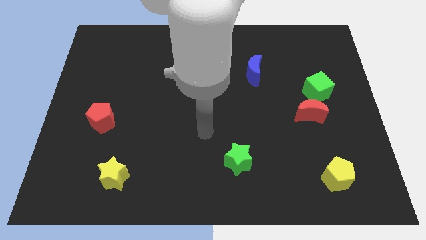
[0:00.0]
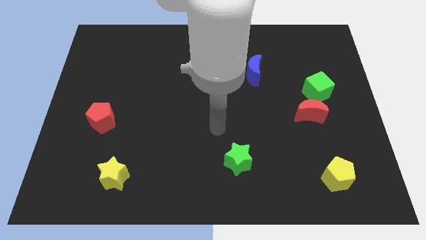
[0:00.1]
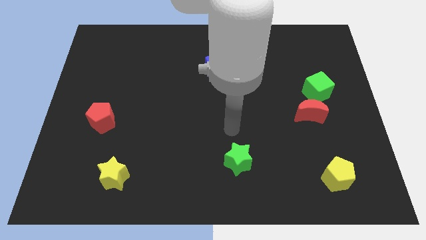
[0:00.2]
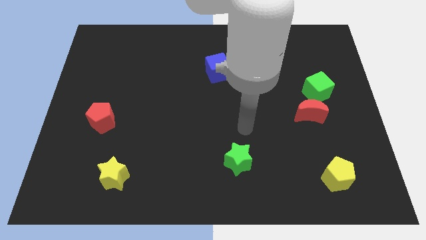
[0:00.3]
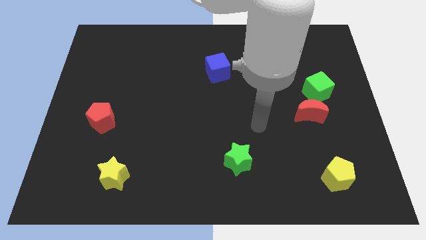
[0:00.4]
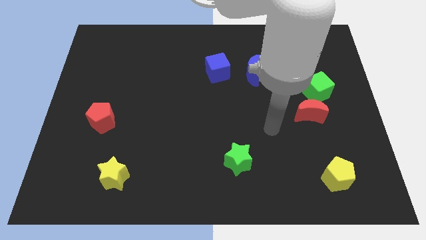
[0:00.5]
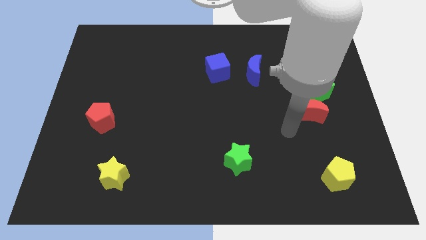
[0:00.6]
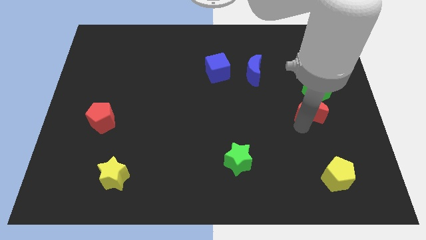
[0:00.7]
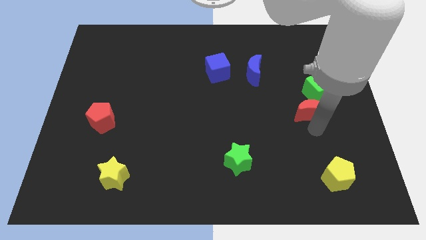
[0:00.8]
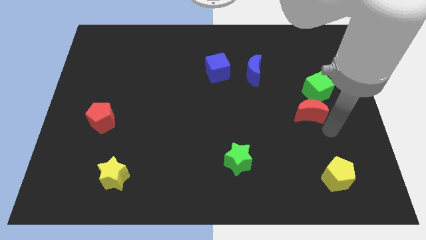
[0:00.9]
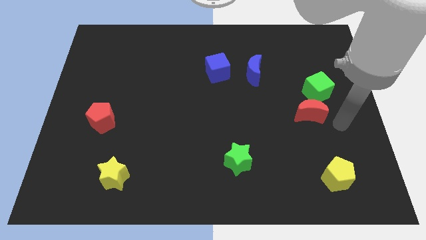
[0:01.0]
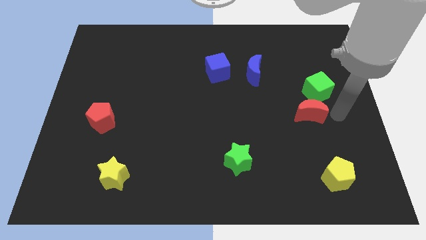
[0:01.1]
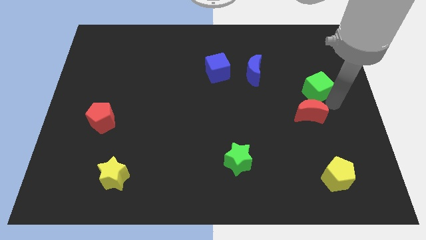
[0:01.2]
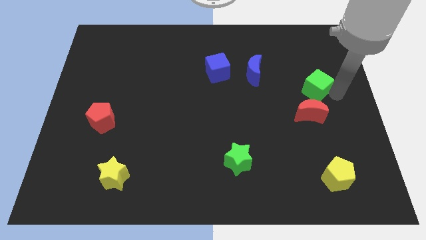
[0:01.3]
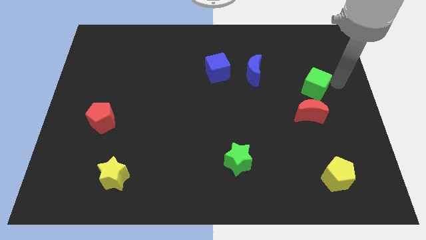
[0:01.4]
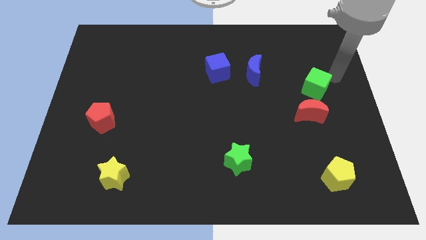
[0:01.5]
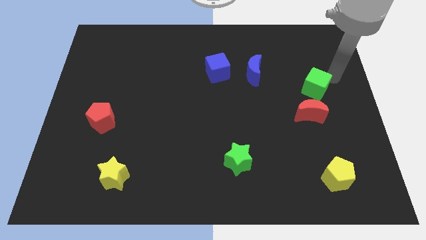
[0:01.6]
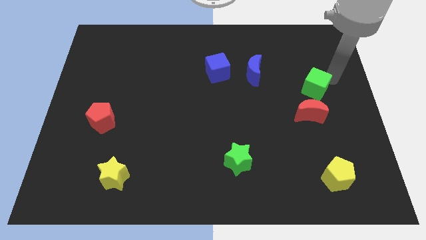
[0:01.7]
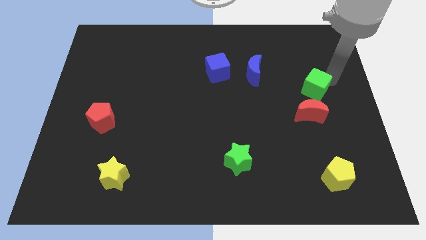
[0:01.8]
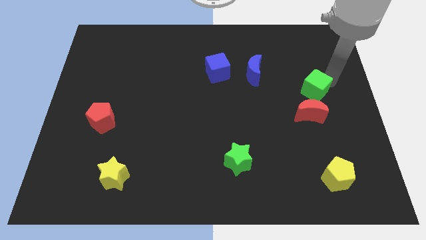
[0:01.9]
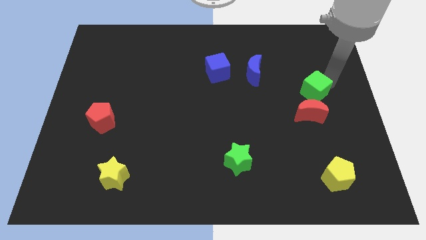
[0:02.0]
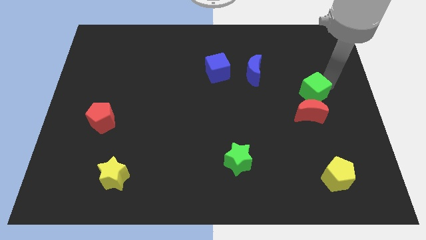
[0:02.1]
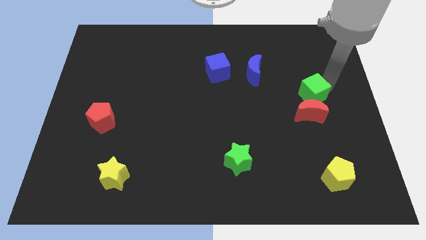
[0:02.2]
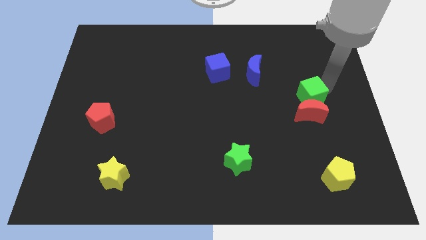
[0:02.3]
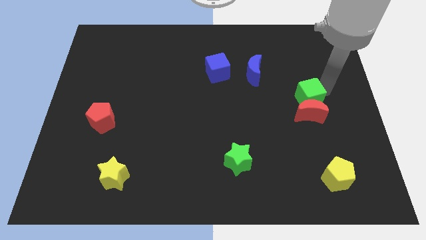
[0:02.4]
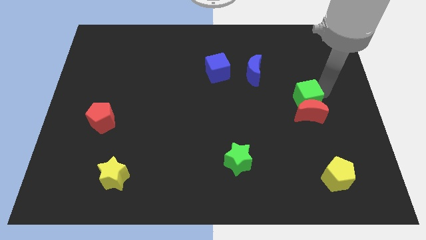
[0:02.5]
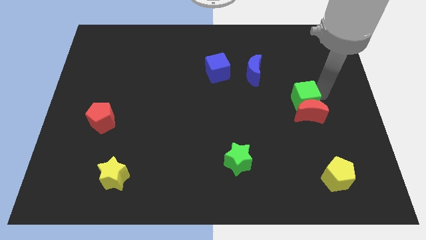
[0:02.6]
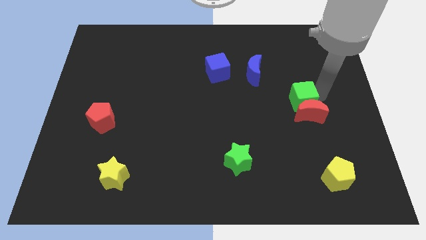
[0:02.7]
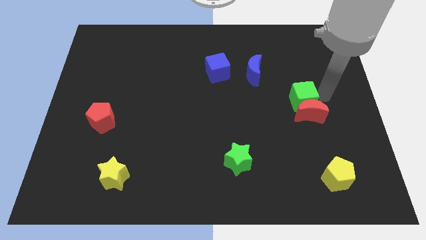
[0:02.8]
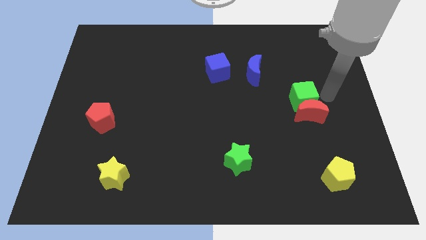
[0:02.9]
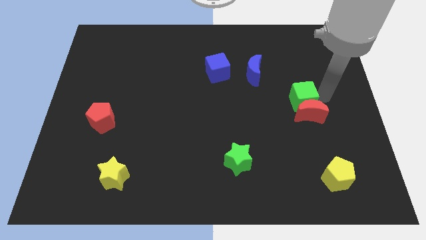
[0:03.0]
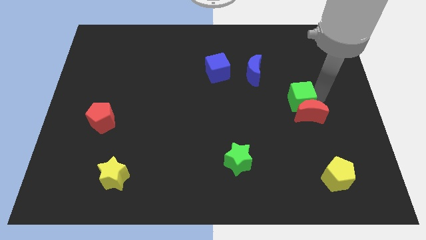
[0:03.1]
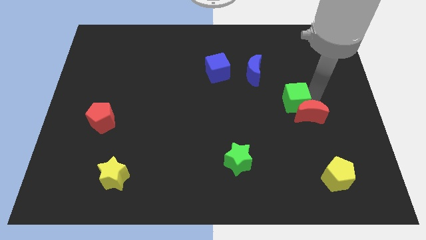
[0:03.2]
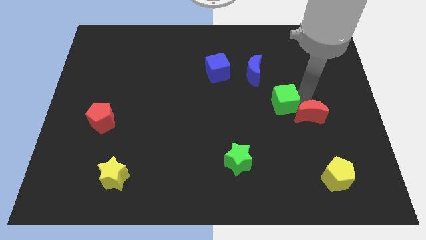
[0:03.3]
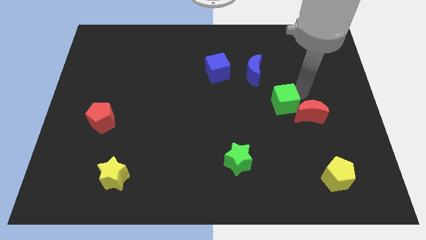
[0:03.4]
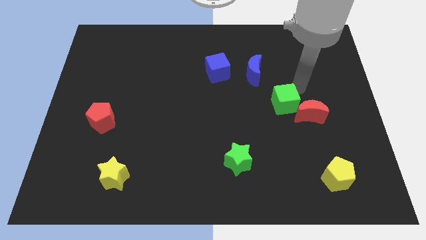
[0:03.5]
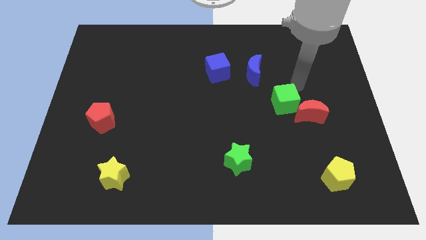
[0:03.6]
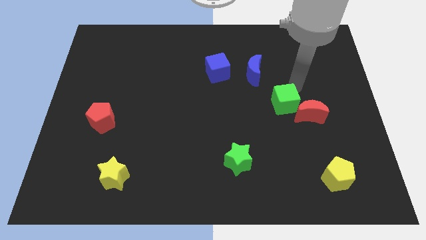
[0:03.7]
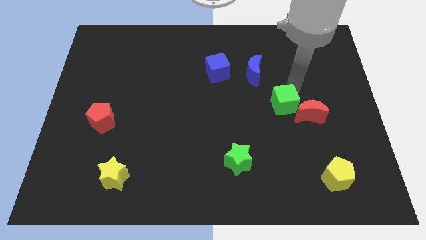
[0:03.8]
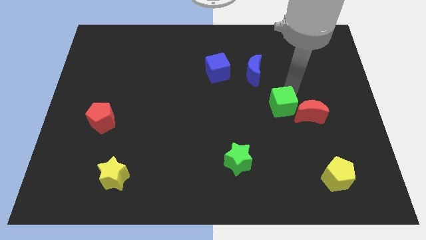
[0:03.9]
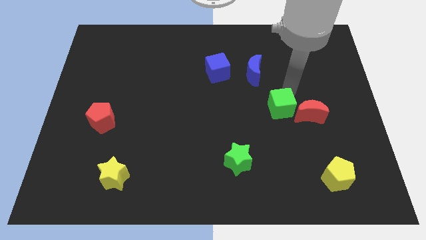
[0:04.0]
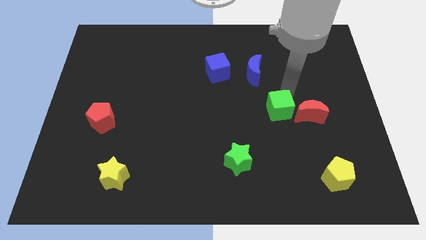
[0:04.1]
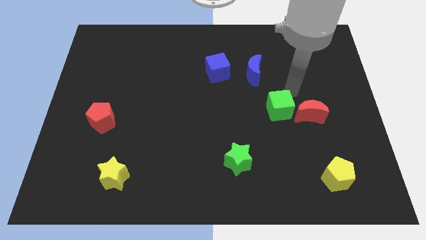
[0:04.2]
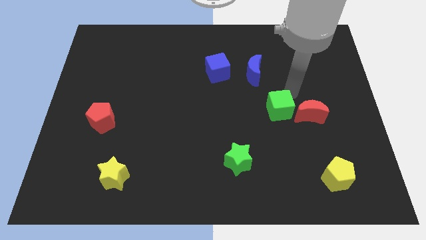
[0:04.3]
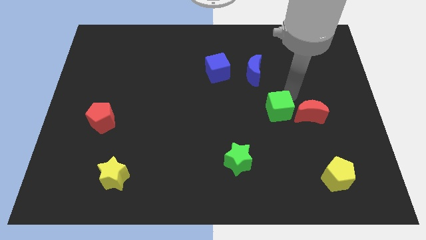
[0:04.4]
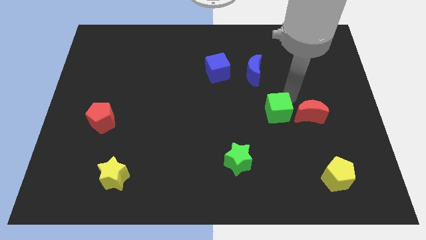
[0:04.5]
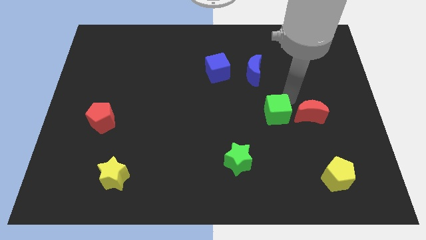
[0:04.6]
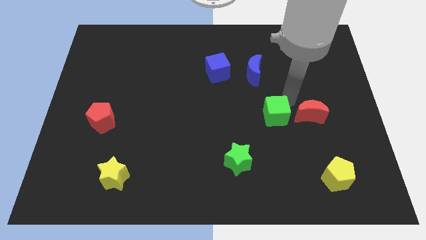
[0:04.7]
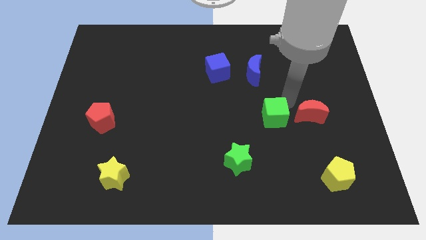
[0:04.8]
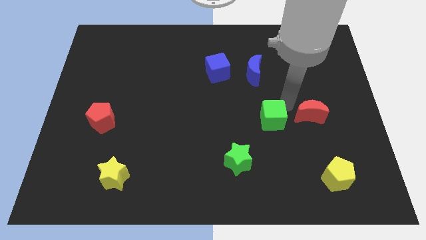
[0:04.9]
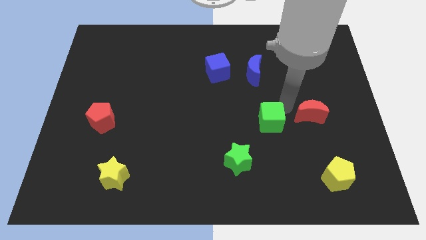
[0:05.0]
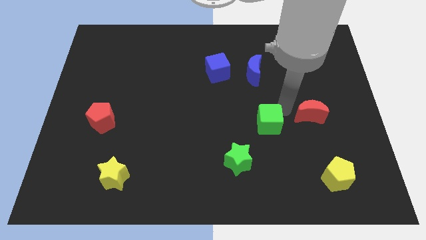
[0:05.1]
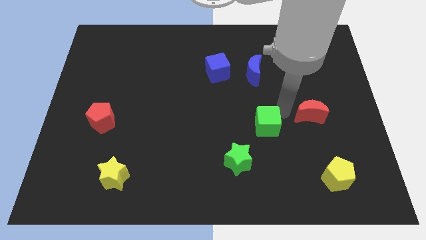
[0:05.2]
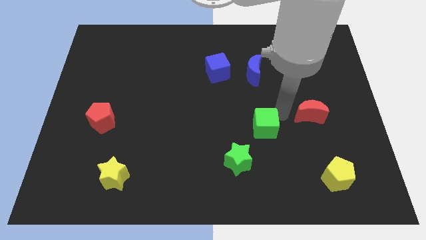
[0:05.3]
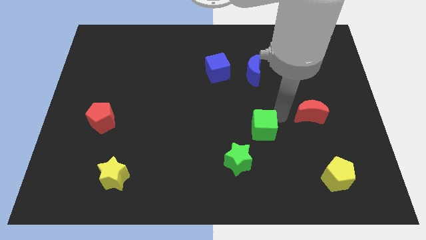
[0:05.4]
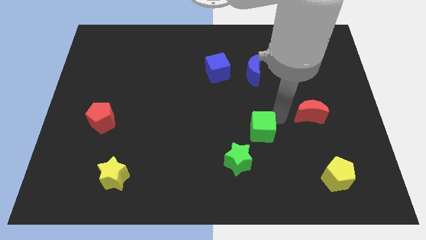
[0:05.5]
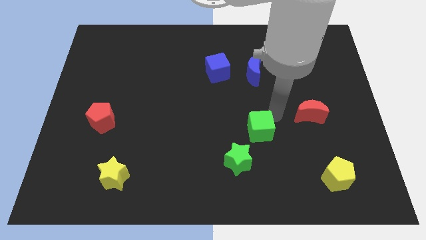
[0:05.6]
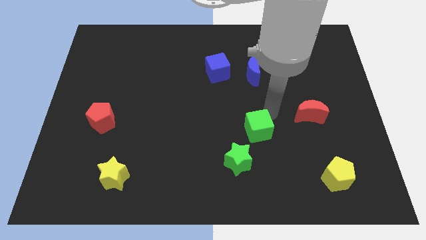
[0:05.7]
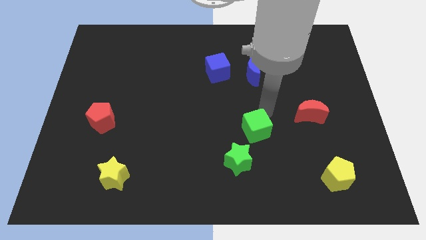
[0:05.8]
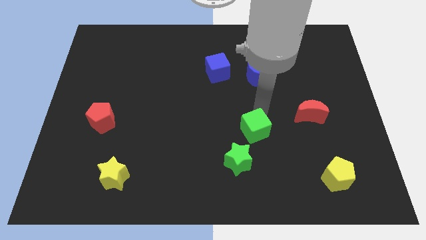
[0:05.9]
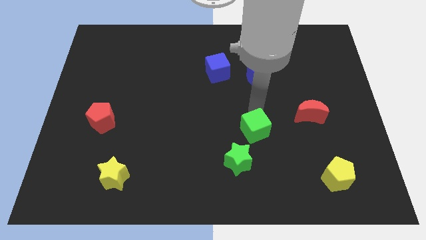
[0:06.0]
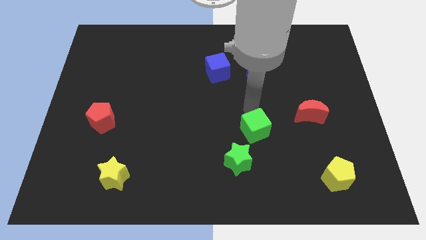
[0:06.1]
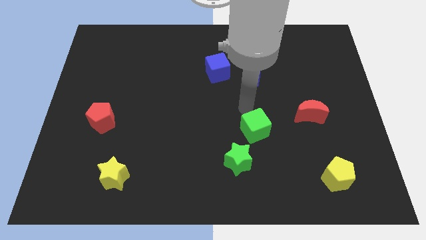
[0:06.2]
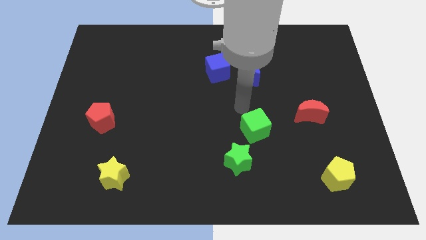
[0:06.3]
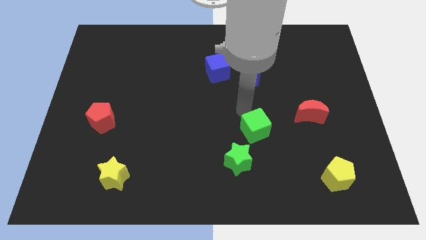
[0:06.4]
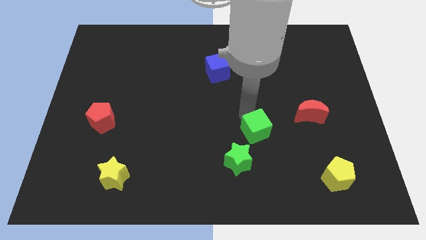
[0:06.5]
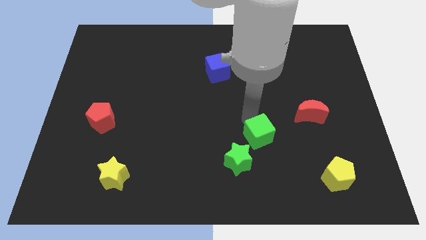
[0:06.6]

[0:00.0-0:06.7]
push the green cube down and left diagonally

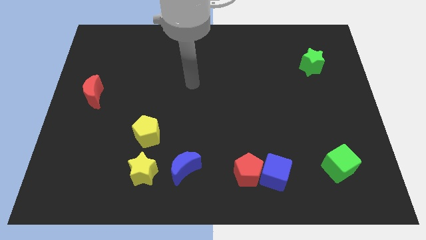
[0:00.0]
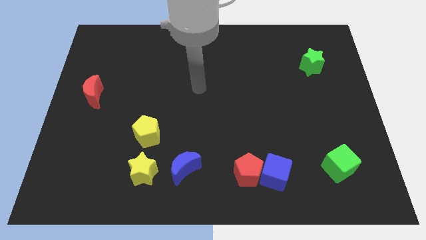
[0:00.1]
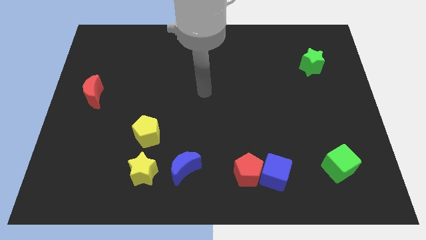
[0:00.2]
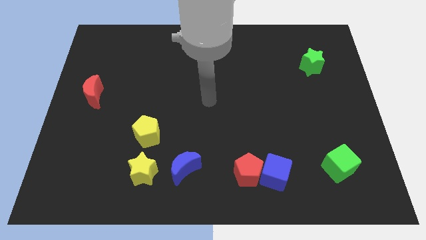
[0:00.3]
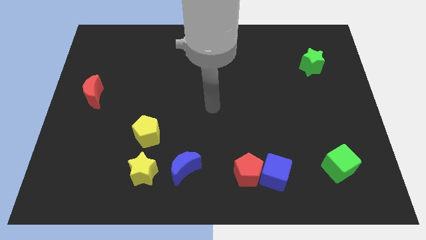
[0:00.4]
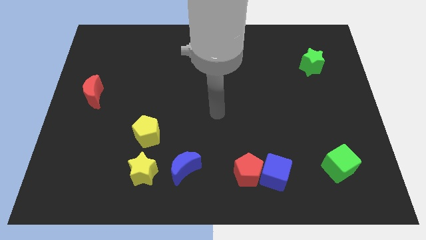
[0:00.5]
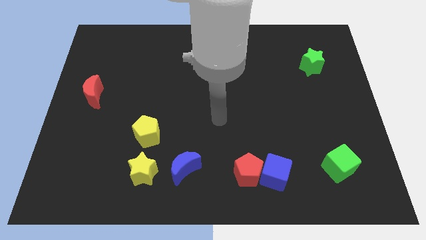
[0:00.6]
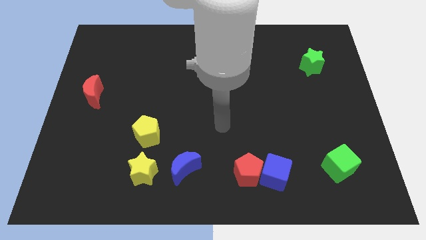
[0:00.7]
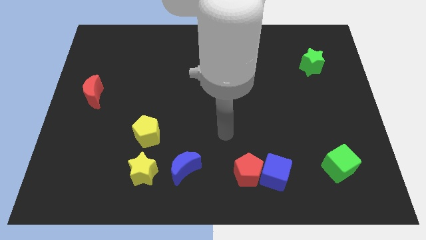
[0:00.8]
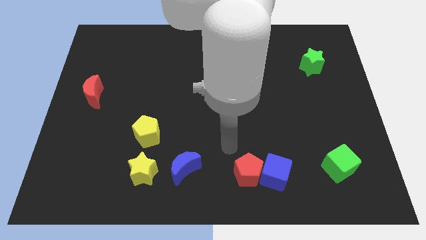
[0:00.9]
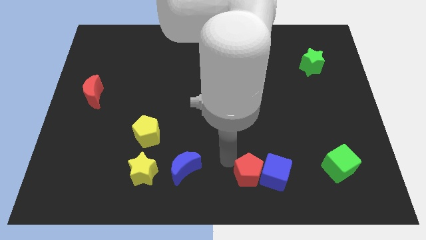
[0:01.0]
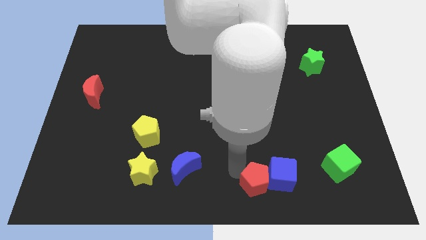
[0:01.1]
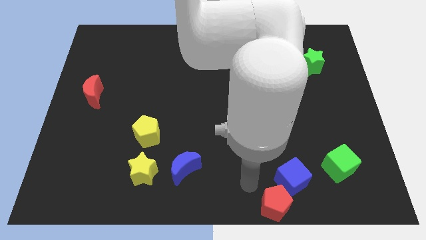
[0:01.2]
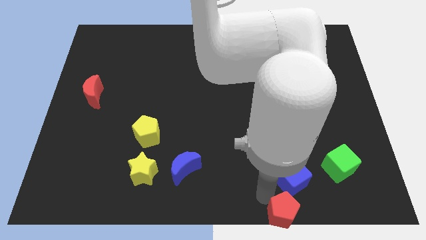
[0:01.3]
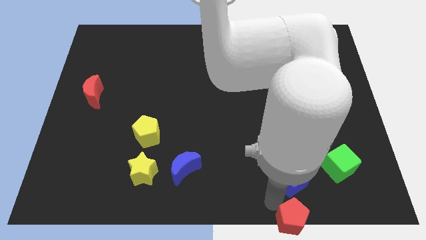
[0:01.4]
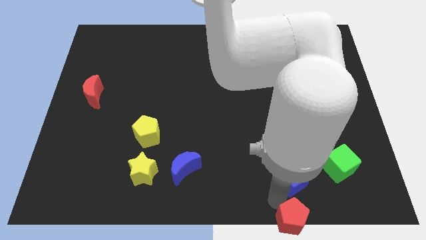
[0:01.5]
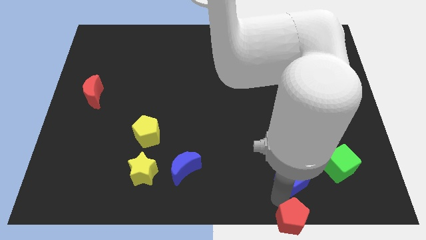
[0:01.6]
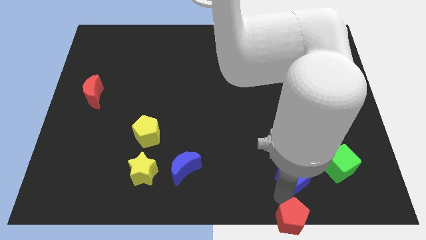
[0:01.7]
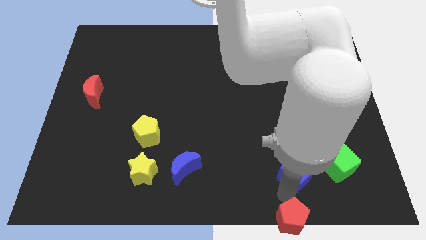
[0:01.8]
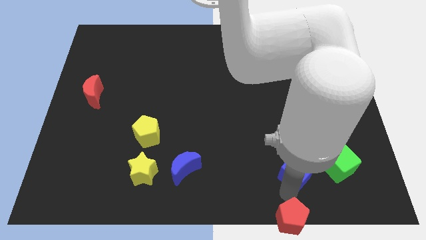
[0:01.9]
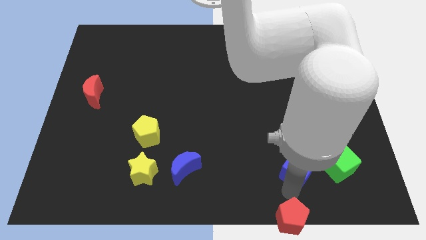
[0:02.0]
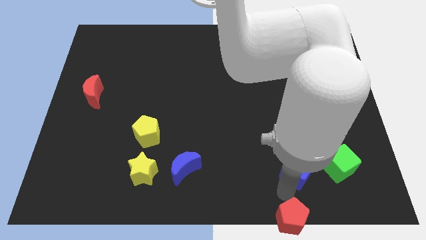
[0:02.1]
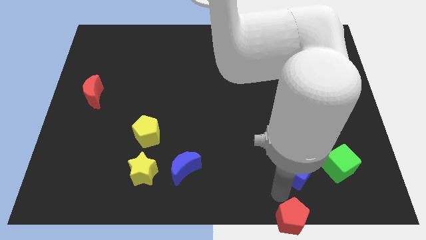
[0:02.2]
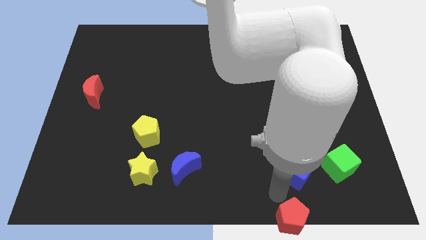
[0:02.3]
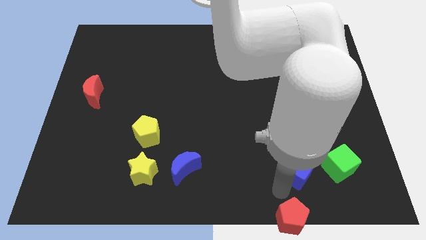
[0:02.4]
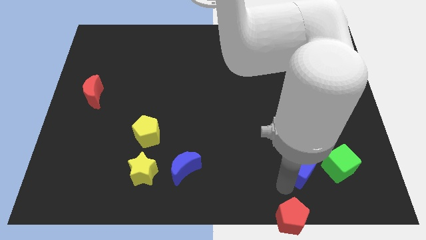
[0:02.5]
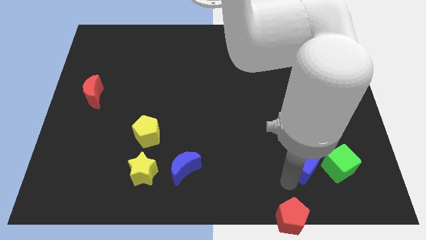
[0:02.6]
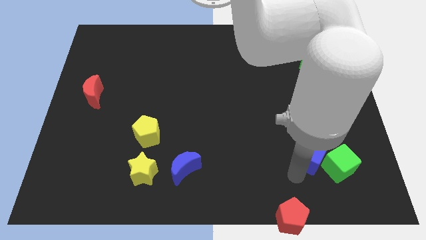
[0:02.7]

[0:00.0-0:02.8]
slide the blue cube slightly diagonally upwards and right
